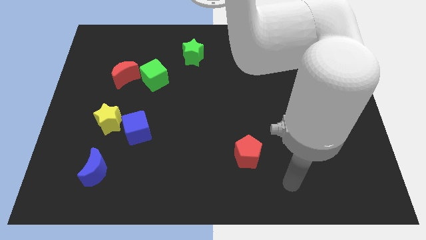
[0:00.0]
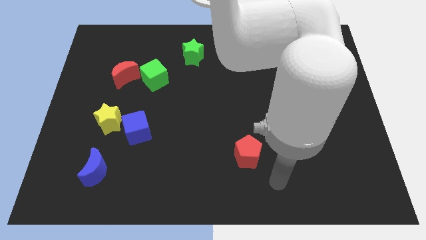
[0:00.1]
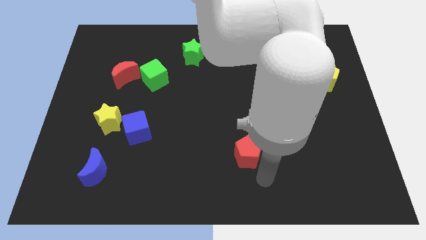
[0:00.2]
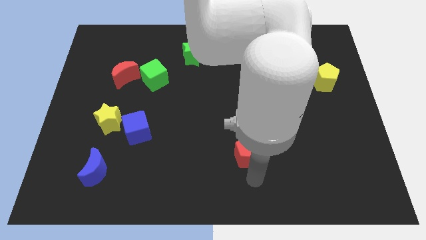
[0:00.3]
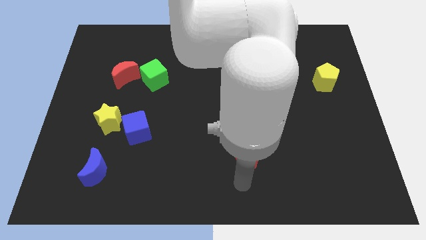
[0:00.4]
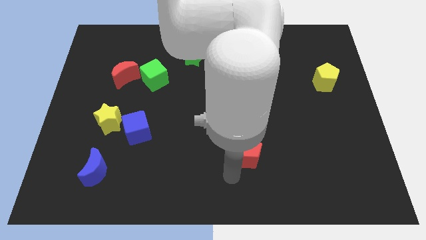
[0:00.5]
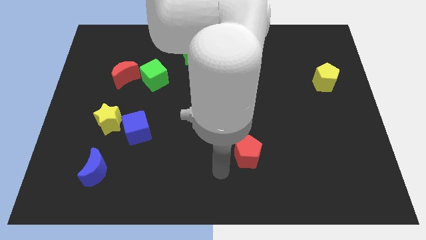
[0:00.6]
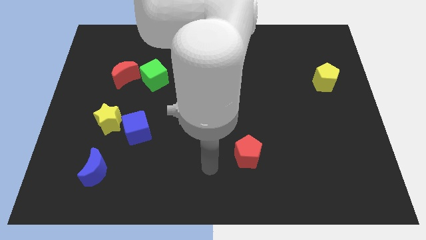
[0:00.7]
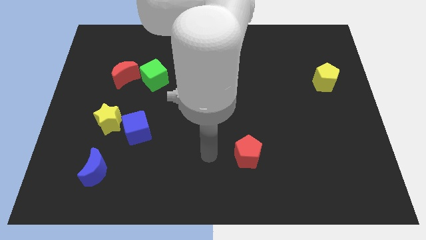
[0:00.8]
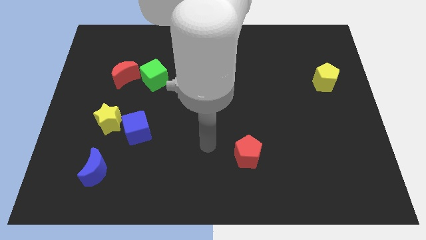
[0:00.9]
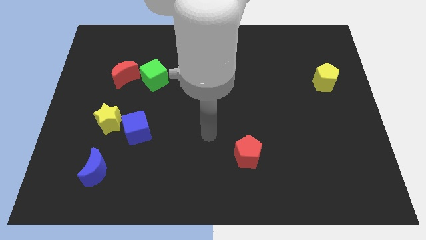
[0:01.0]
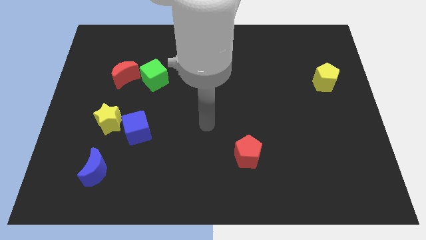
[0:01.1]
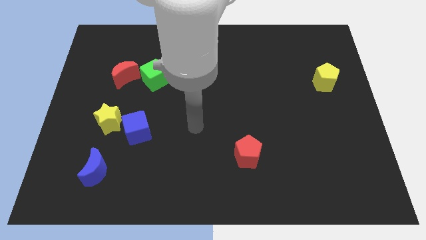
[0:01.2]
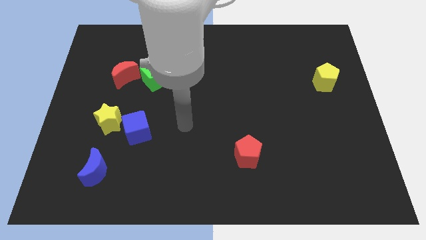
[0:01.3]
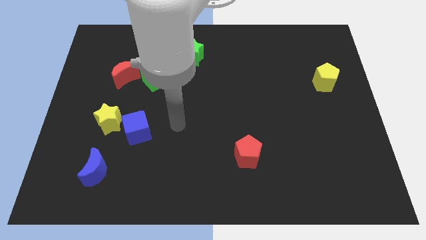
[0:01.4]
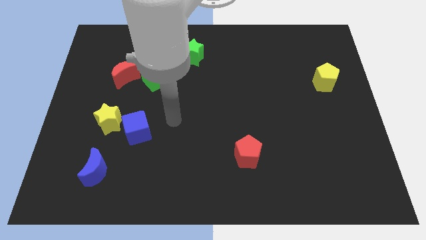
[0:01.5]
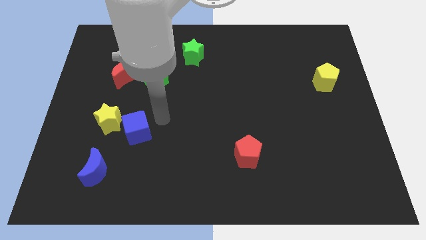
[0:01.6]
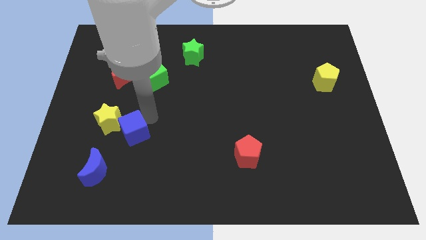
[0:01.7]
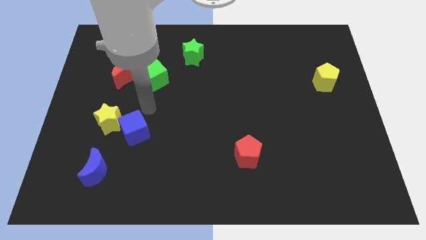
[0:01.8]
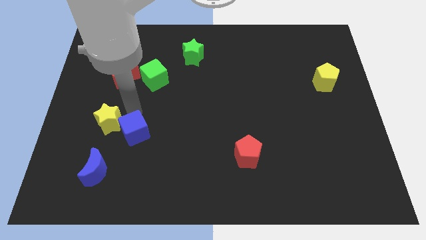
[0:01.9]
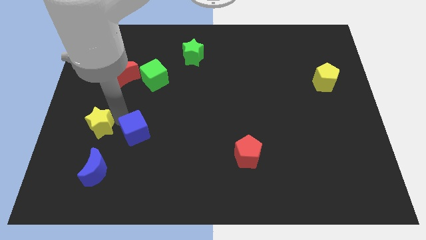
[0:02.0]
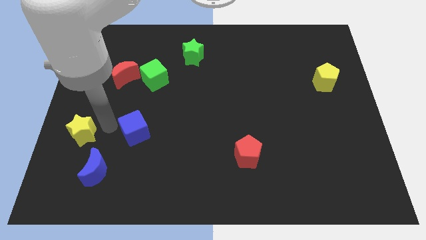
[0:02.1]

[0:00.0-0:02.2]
move the blue cube away from the yellow star

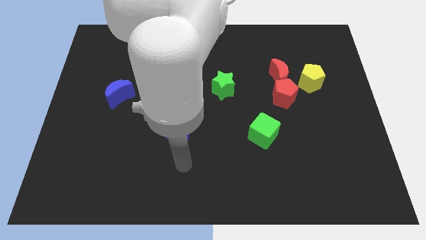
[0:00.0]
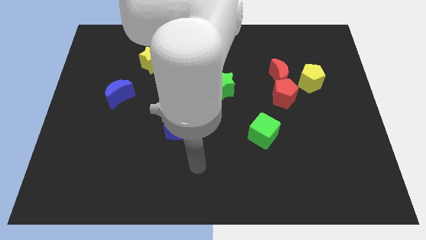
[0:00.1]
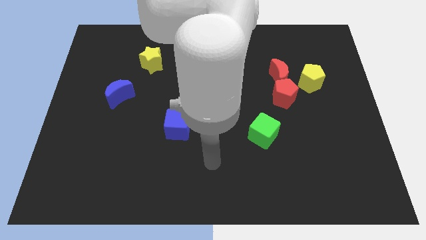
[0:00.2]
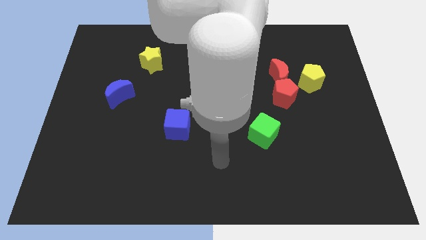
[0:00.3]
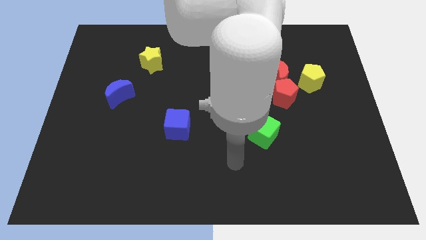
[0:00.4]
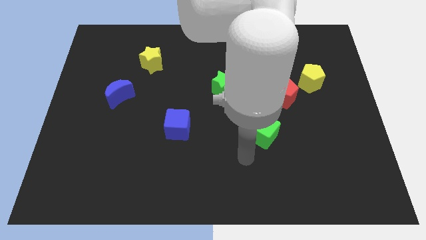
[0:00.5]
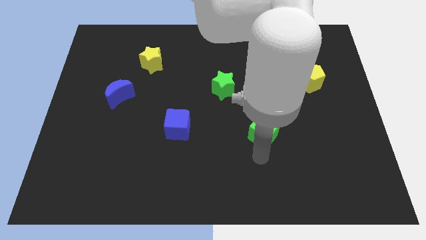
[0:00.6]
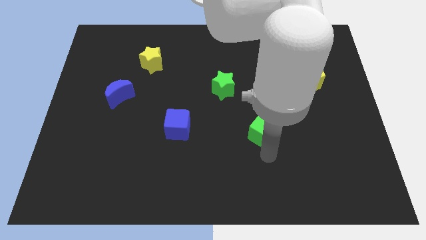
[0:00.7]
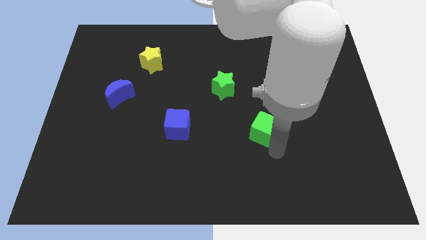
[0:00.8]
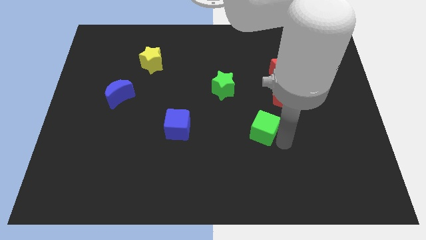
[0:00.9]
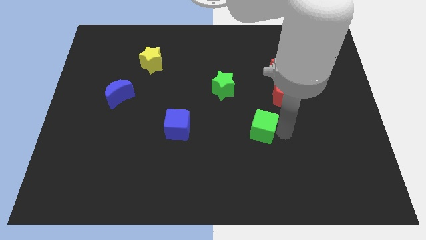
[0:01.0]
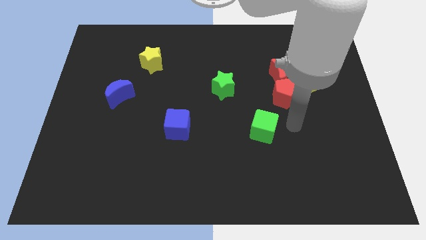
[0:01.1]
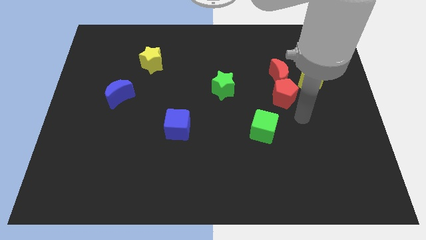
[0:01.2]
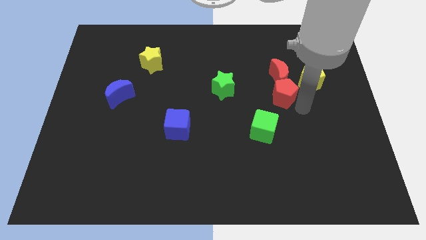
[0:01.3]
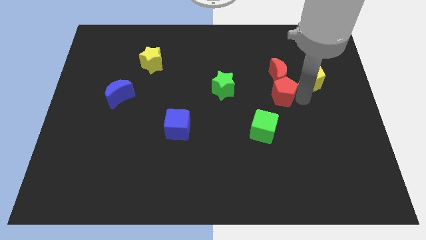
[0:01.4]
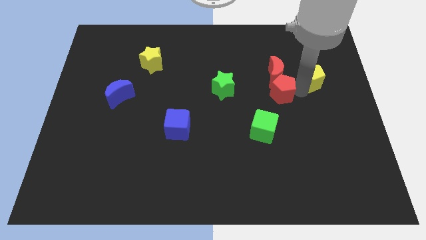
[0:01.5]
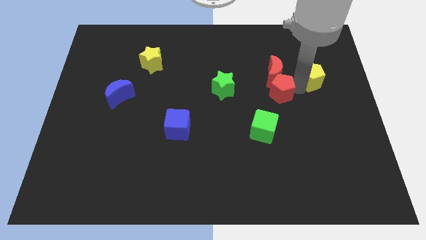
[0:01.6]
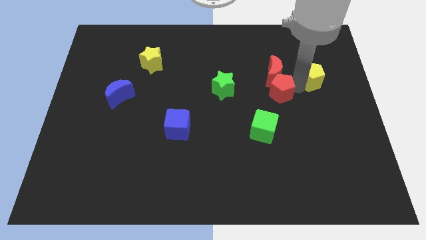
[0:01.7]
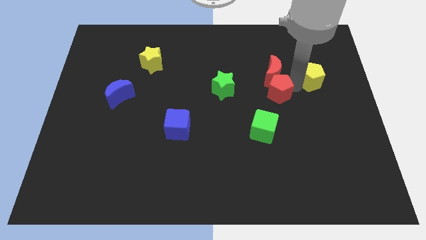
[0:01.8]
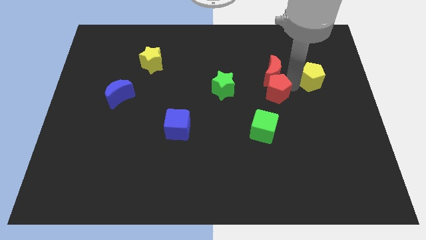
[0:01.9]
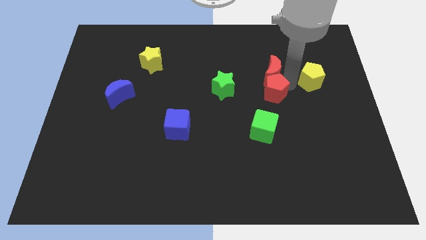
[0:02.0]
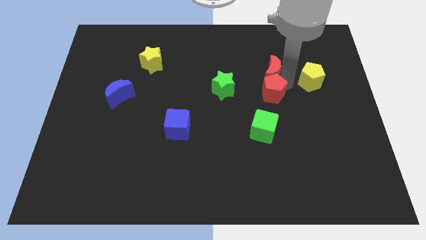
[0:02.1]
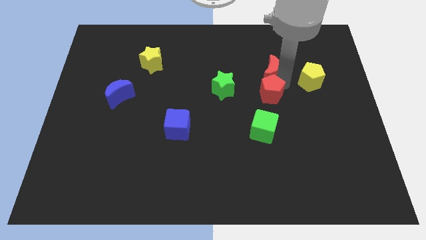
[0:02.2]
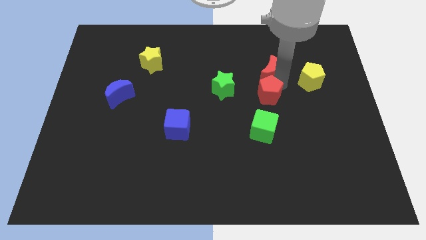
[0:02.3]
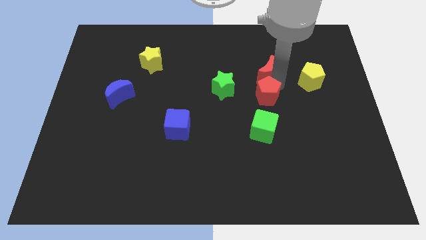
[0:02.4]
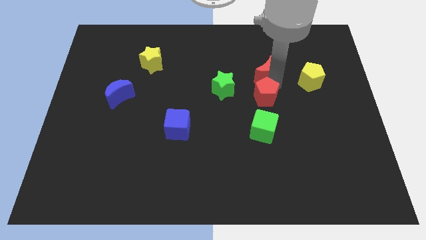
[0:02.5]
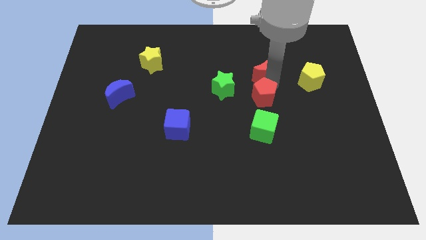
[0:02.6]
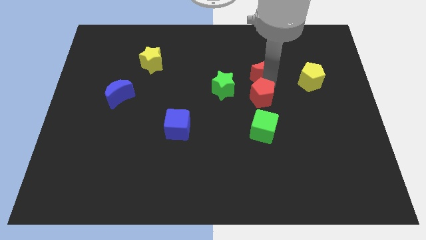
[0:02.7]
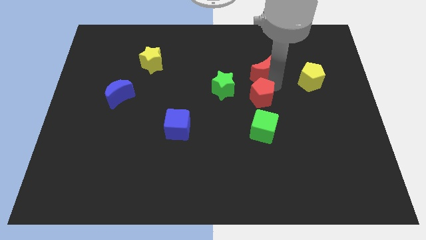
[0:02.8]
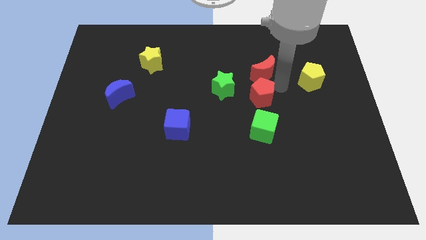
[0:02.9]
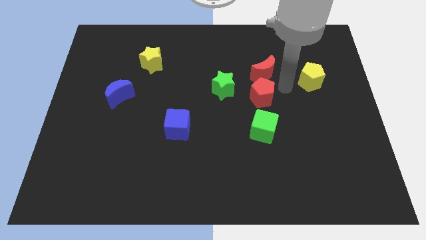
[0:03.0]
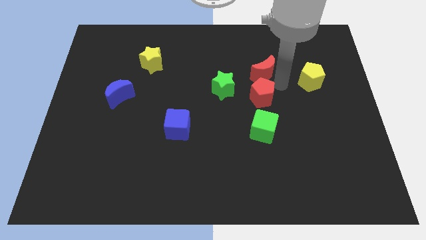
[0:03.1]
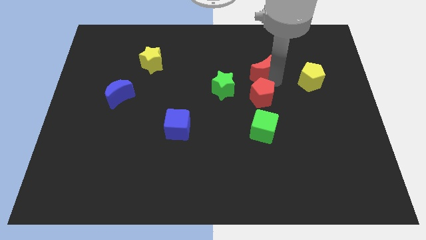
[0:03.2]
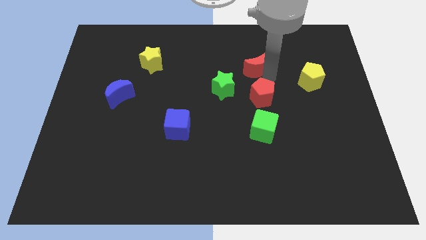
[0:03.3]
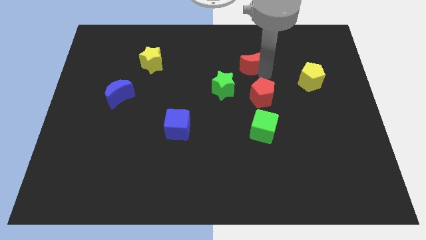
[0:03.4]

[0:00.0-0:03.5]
pull the red moon apart from the red pentagon and yellow pentagon

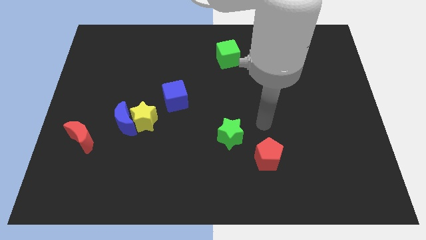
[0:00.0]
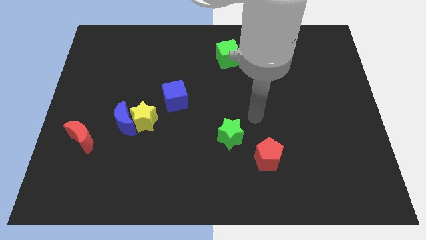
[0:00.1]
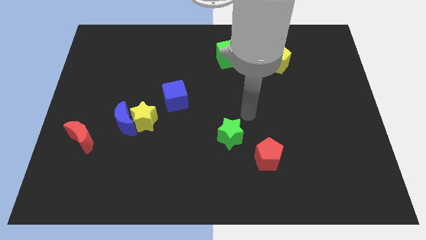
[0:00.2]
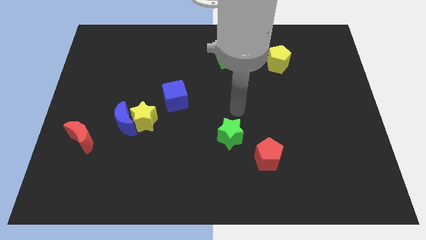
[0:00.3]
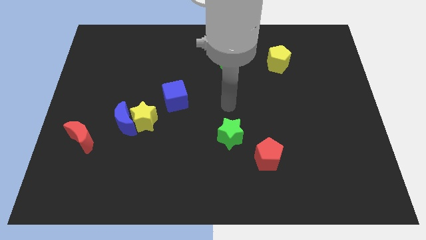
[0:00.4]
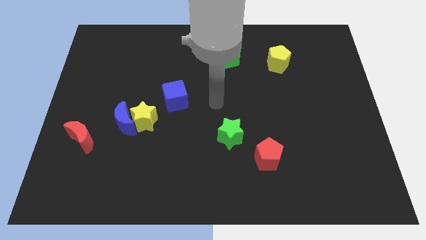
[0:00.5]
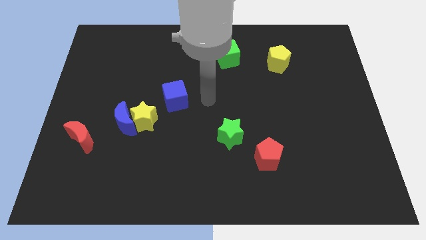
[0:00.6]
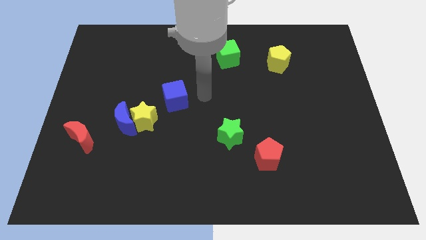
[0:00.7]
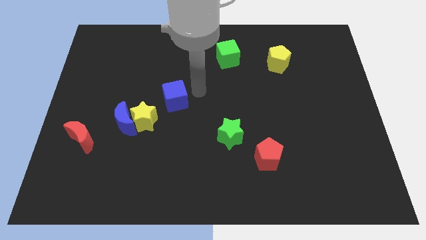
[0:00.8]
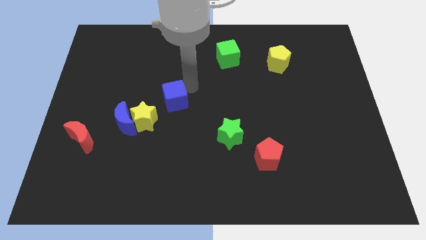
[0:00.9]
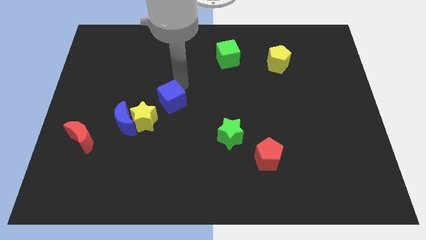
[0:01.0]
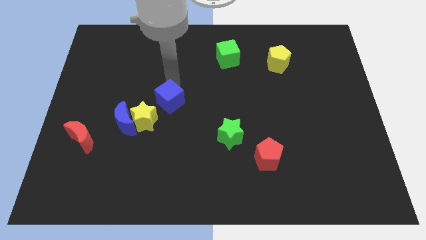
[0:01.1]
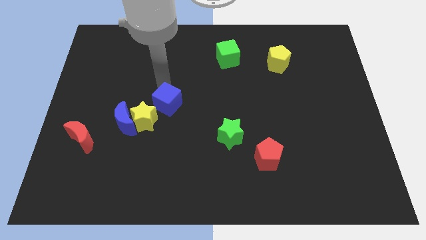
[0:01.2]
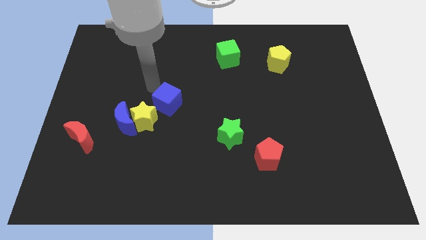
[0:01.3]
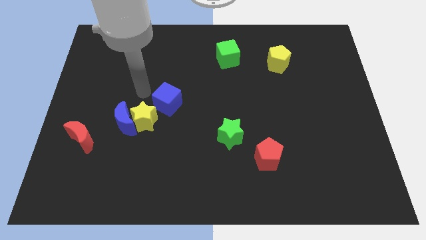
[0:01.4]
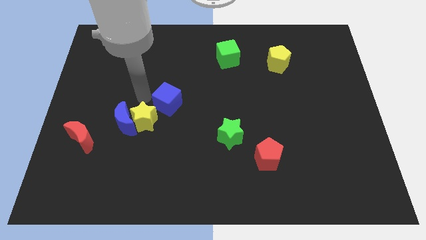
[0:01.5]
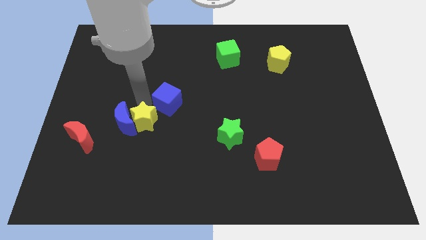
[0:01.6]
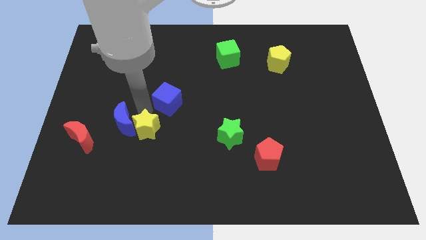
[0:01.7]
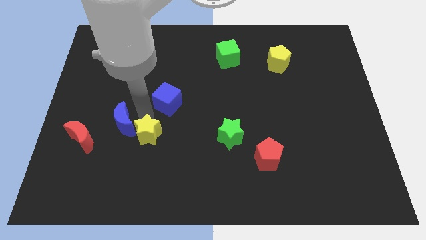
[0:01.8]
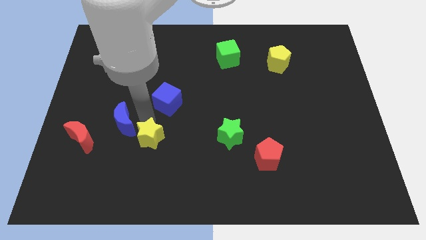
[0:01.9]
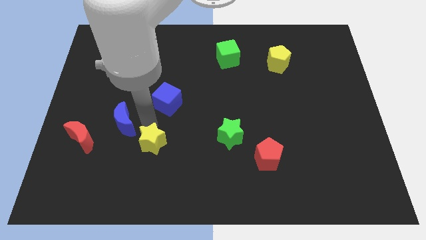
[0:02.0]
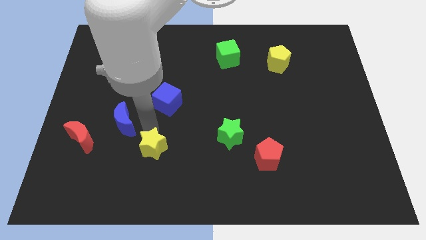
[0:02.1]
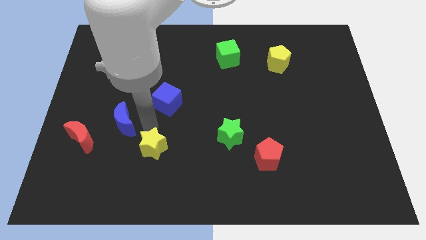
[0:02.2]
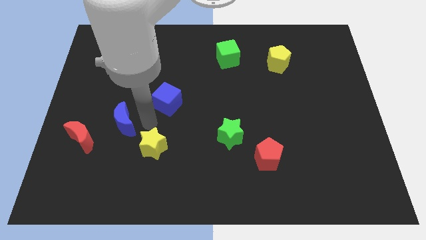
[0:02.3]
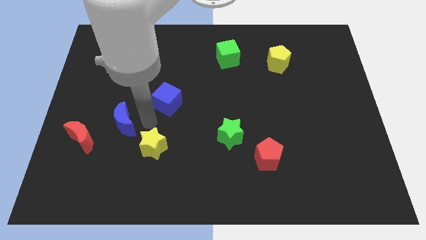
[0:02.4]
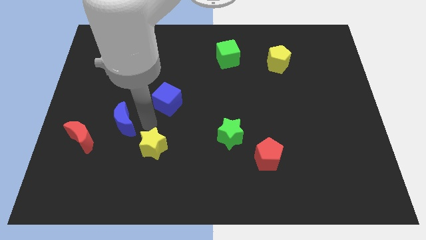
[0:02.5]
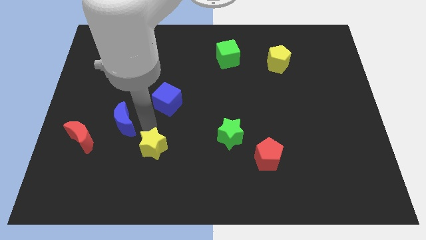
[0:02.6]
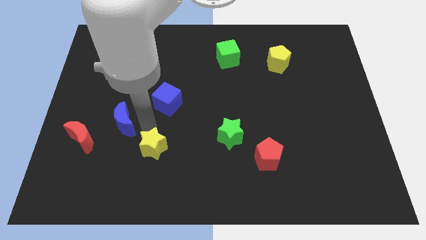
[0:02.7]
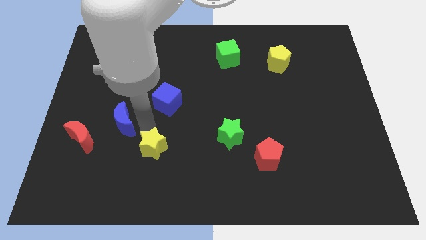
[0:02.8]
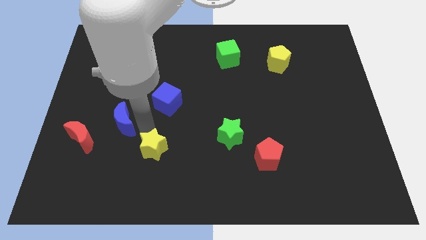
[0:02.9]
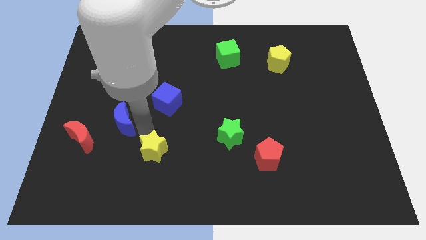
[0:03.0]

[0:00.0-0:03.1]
pull the yellow star apart from the blue moon and blue cube

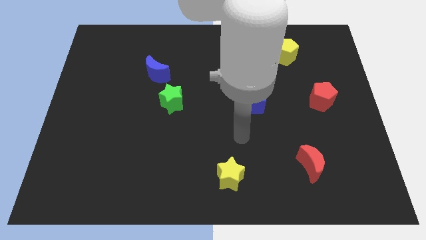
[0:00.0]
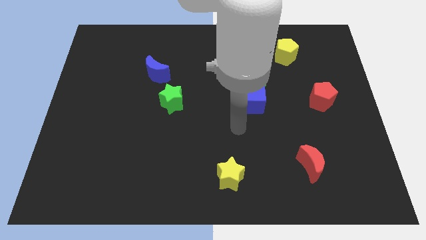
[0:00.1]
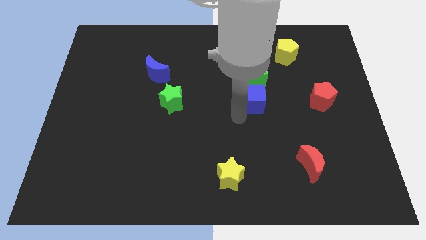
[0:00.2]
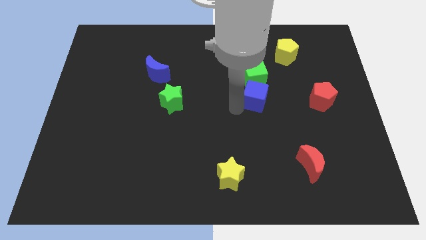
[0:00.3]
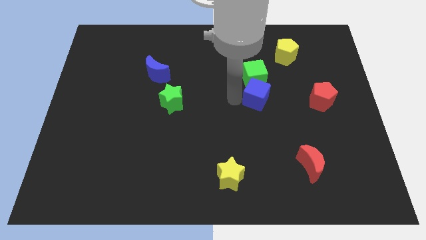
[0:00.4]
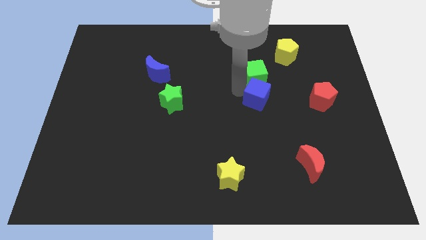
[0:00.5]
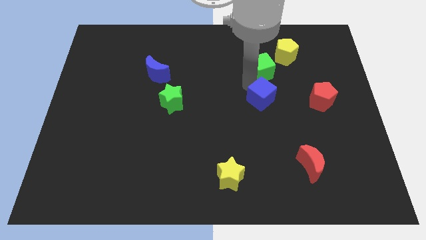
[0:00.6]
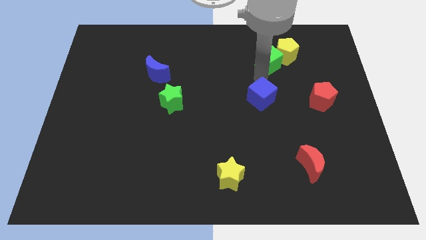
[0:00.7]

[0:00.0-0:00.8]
move the blue cube away from the green cube
